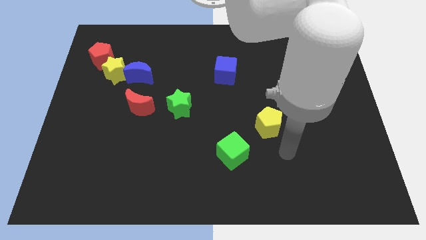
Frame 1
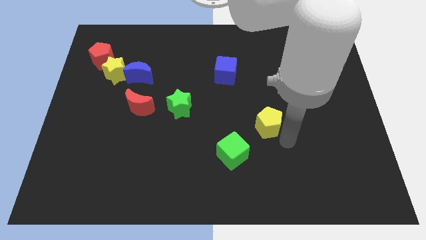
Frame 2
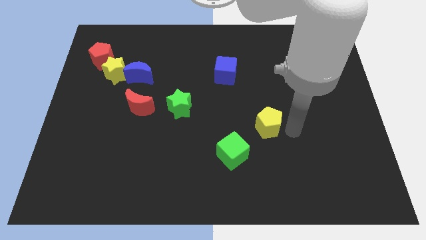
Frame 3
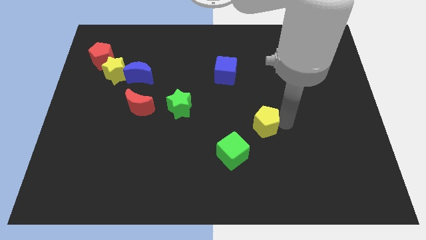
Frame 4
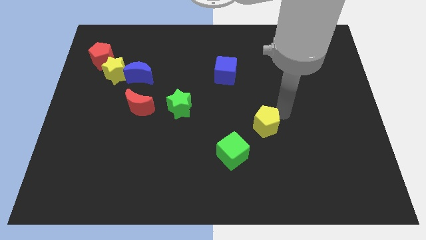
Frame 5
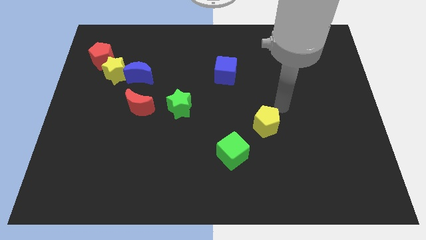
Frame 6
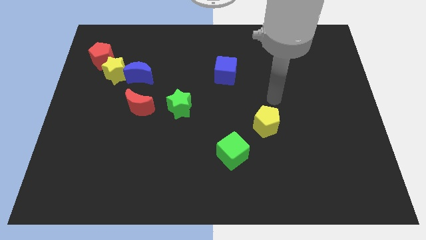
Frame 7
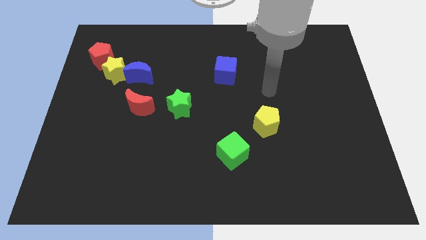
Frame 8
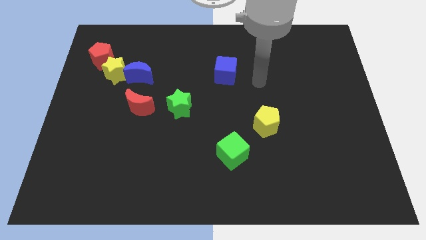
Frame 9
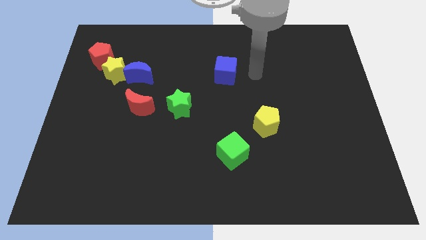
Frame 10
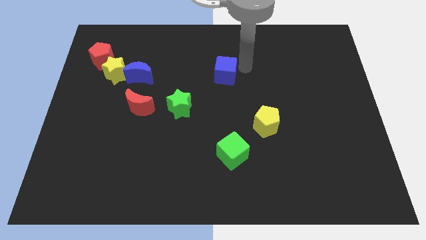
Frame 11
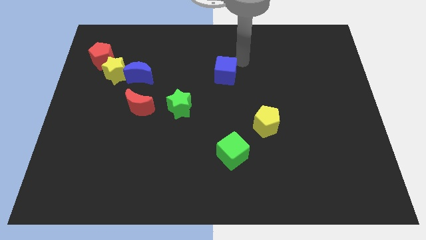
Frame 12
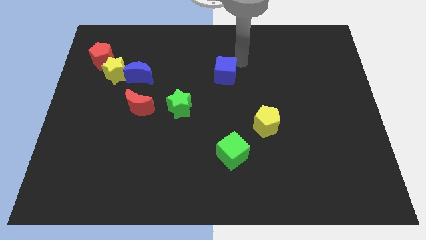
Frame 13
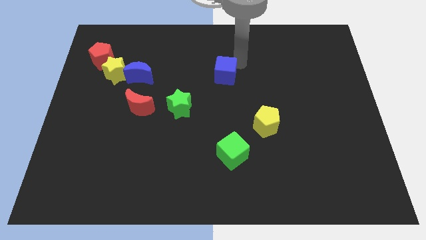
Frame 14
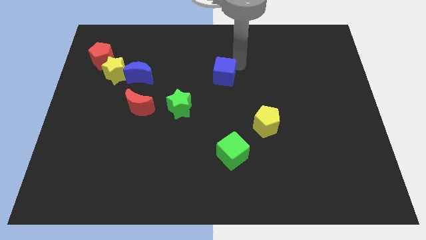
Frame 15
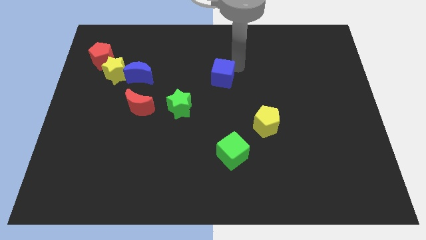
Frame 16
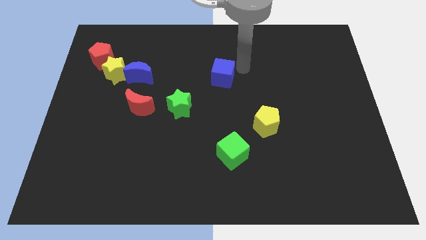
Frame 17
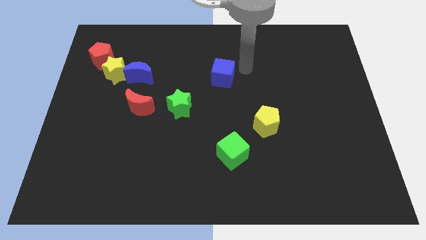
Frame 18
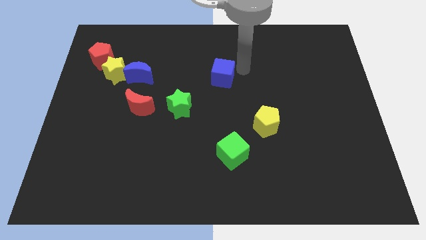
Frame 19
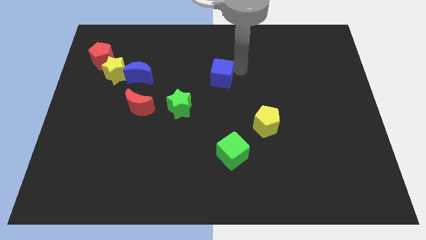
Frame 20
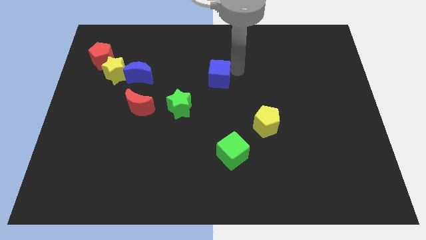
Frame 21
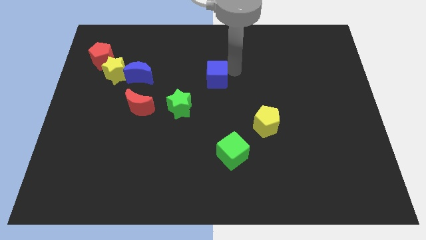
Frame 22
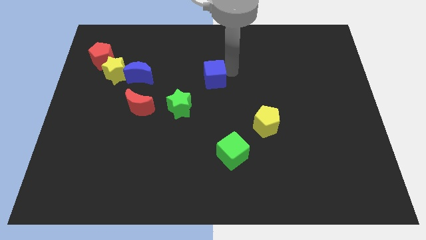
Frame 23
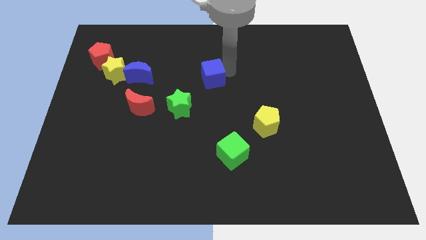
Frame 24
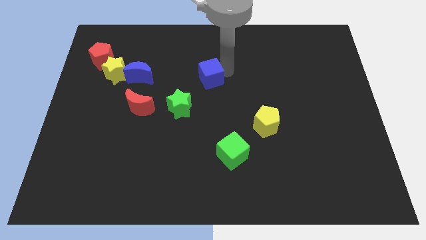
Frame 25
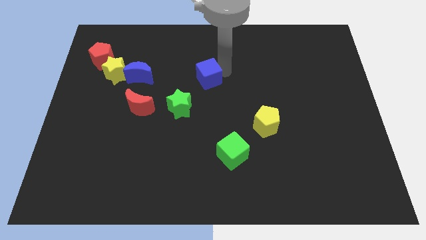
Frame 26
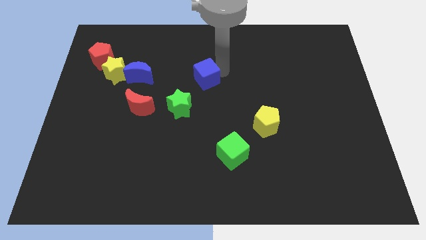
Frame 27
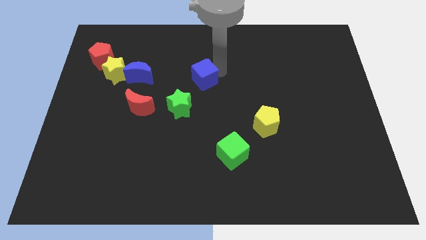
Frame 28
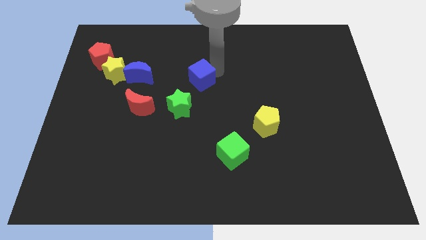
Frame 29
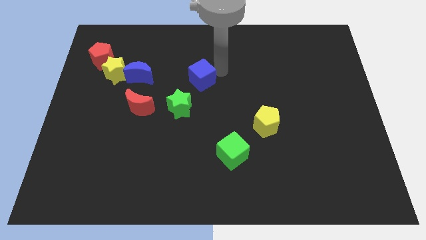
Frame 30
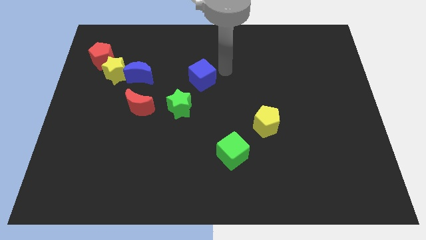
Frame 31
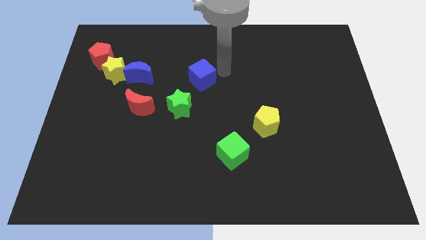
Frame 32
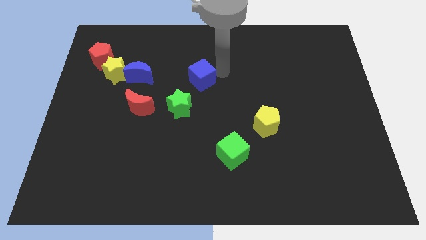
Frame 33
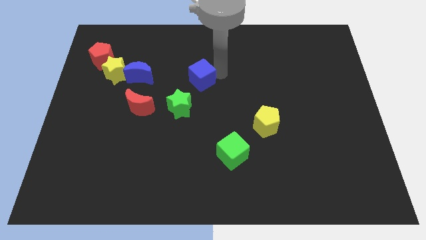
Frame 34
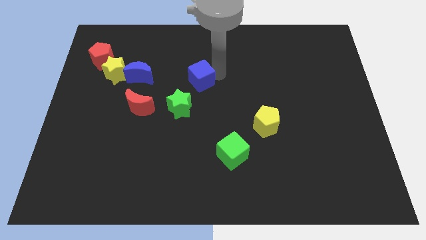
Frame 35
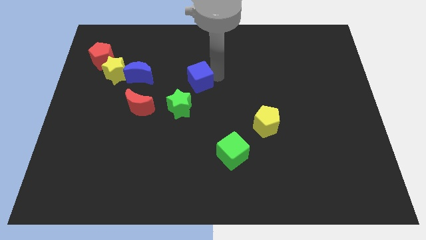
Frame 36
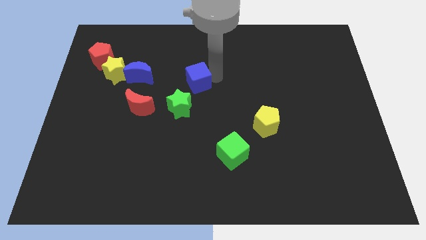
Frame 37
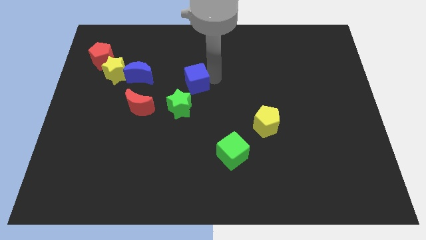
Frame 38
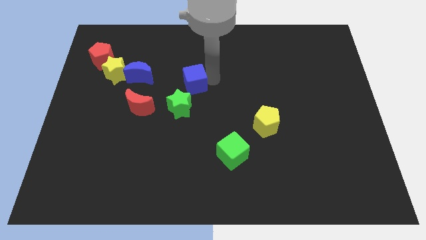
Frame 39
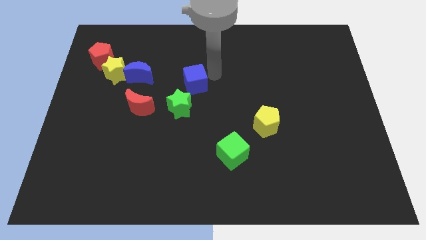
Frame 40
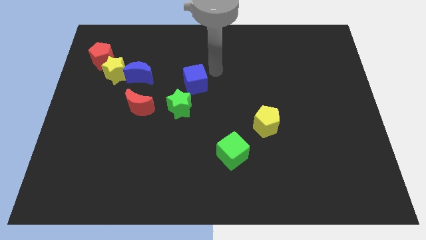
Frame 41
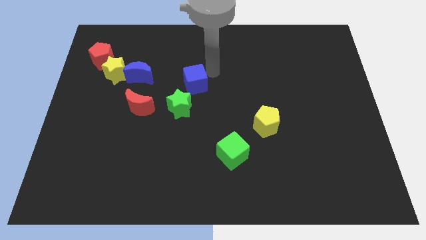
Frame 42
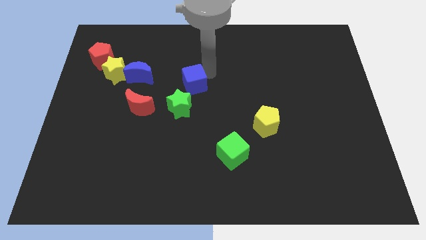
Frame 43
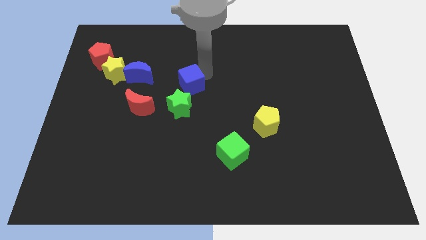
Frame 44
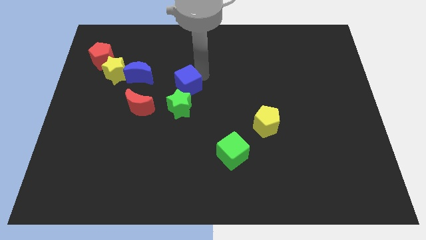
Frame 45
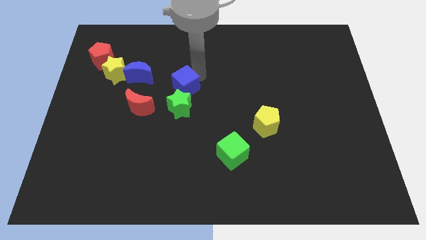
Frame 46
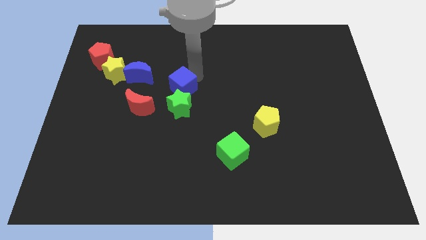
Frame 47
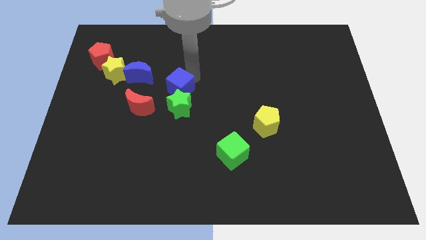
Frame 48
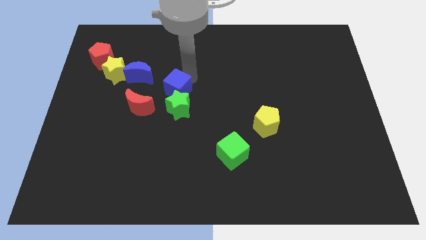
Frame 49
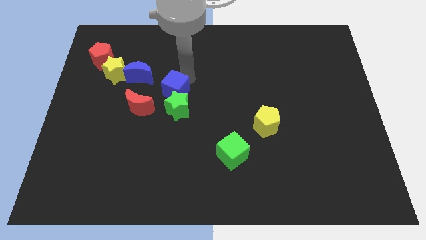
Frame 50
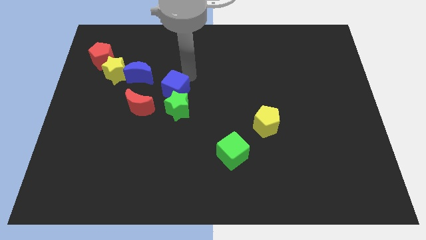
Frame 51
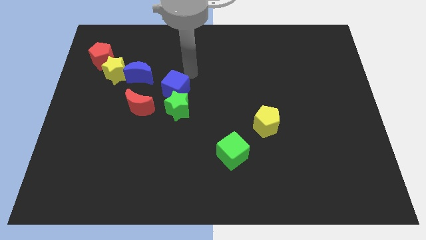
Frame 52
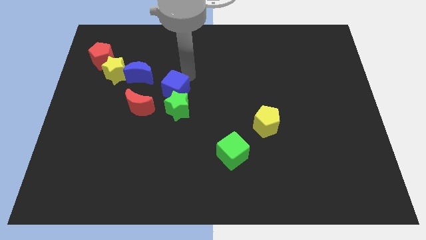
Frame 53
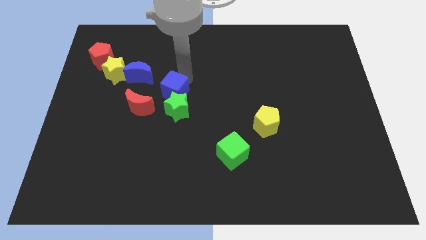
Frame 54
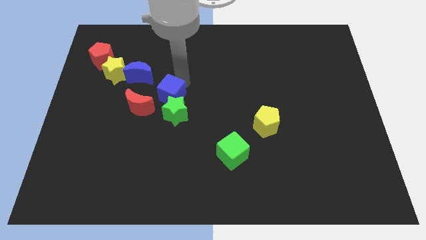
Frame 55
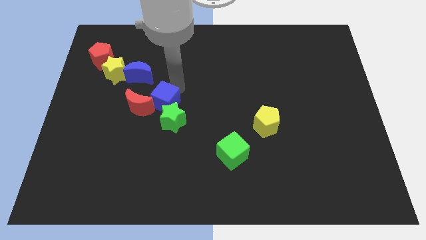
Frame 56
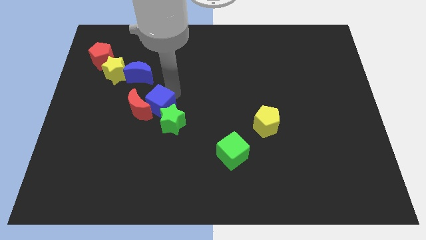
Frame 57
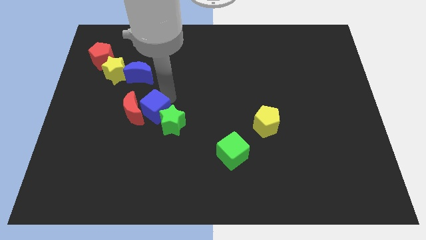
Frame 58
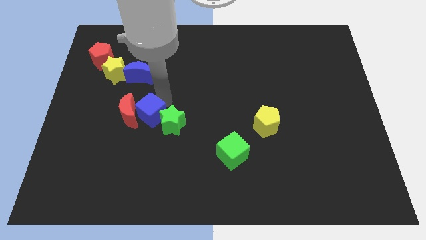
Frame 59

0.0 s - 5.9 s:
push the blue cube downwards and left

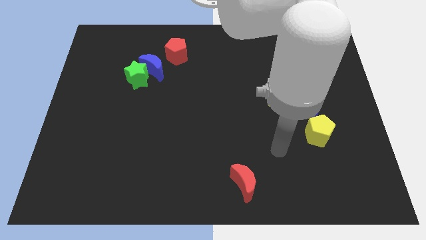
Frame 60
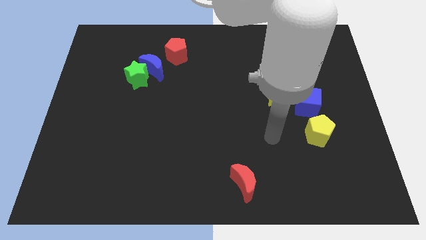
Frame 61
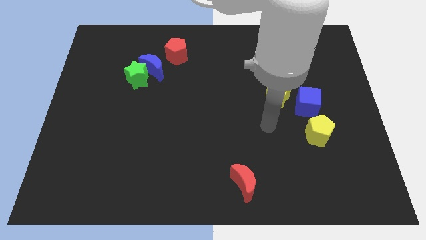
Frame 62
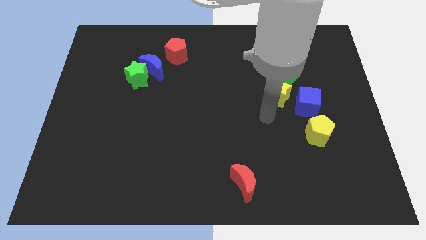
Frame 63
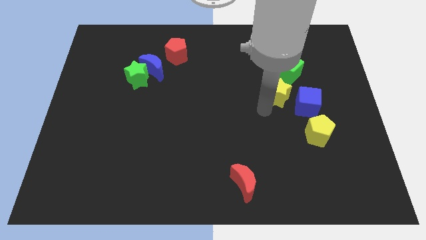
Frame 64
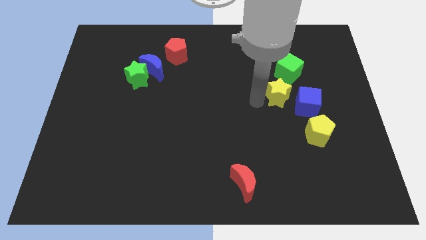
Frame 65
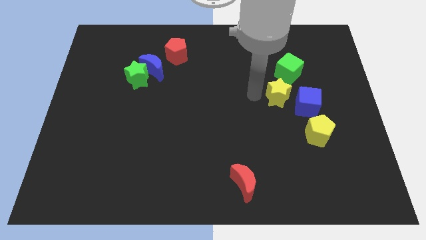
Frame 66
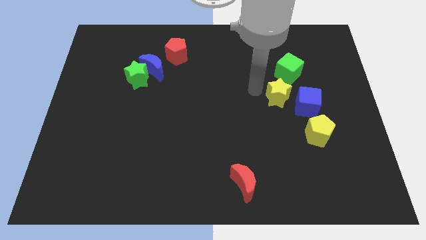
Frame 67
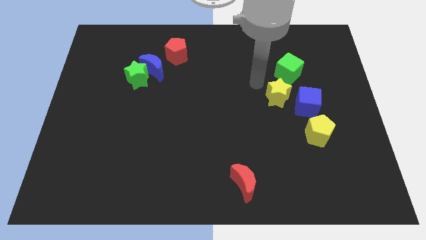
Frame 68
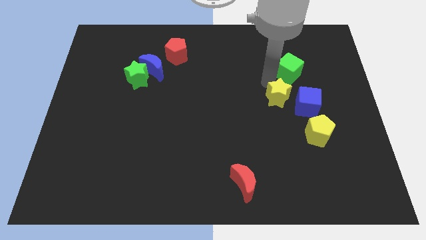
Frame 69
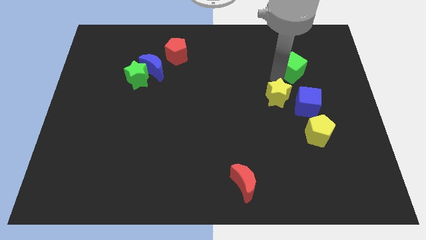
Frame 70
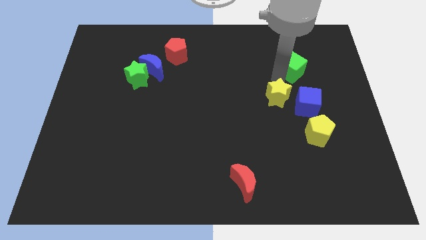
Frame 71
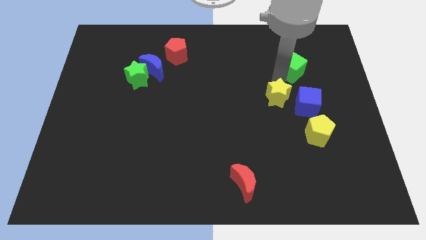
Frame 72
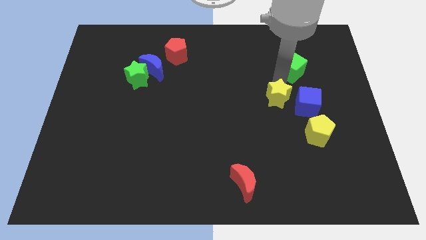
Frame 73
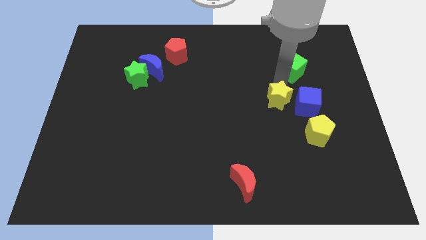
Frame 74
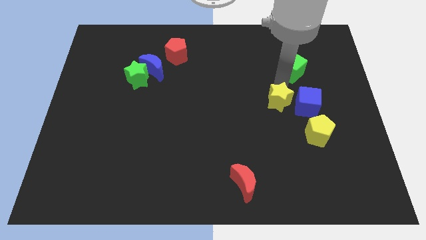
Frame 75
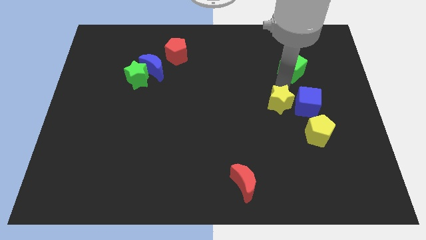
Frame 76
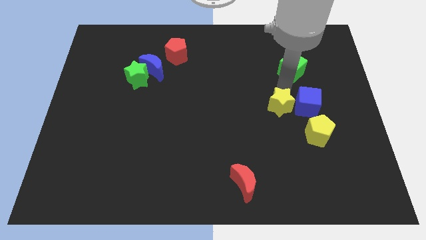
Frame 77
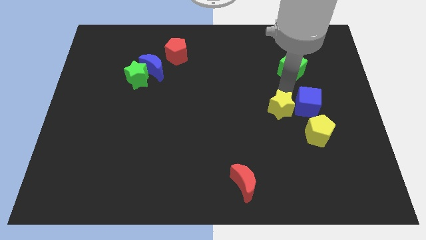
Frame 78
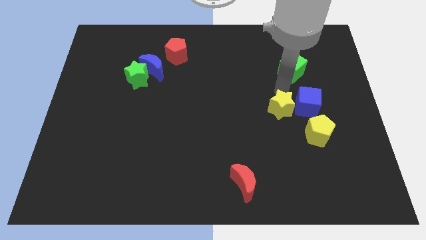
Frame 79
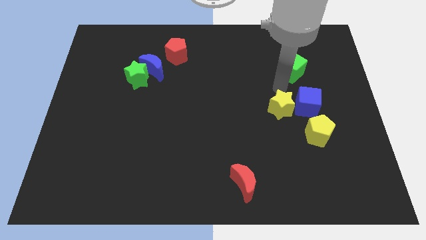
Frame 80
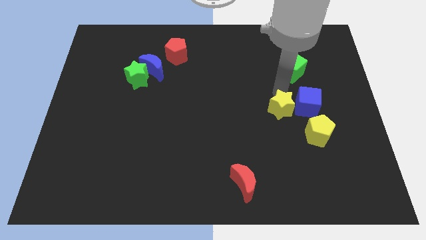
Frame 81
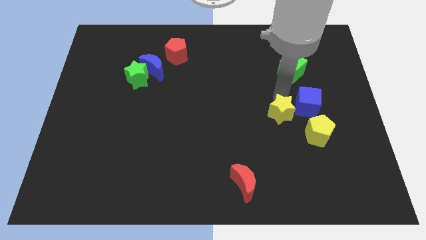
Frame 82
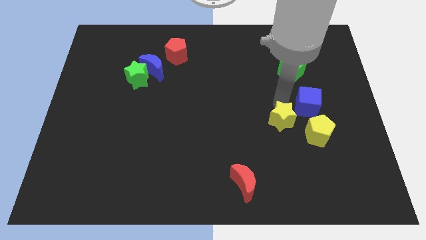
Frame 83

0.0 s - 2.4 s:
push the yellow star downwards a bit

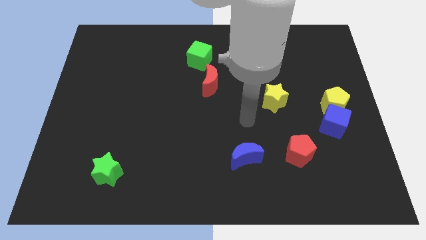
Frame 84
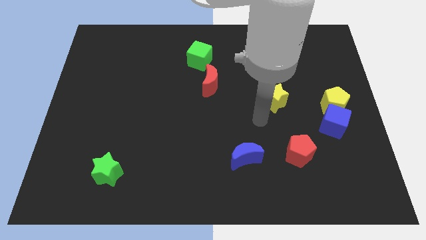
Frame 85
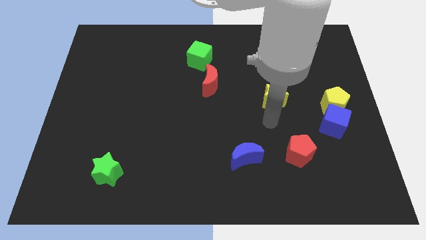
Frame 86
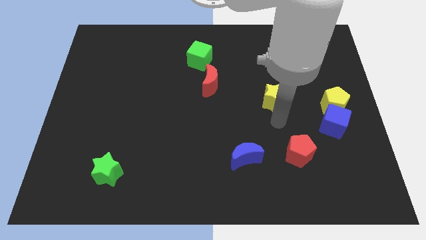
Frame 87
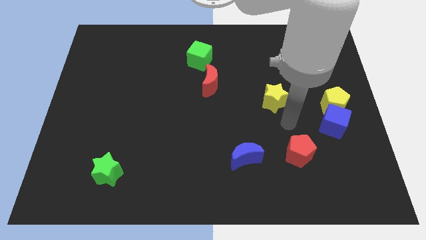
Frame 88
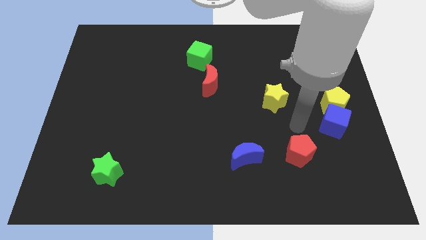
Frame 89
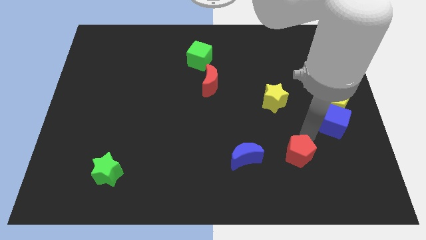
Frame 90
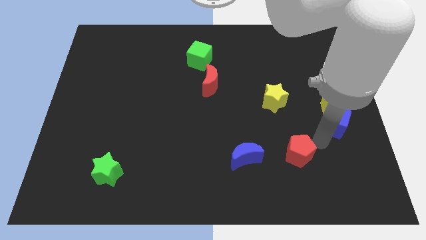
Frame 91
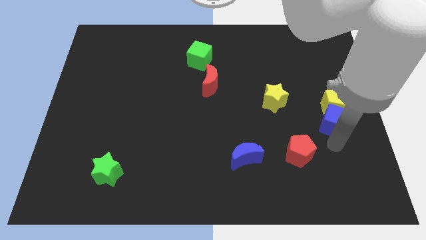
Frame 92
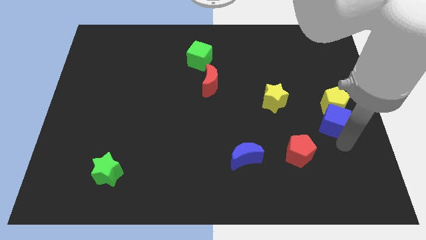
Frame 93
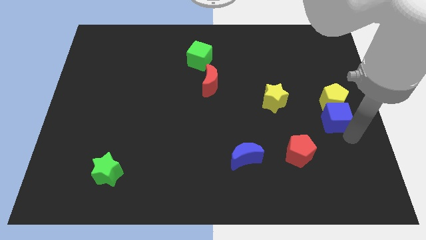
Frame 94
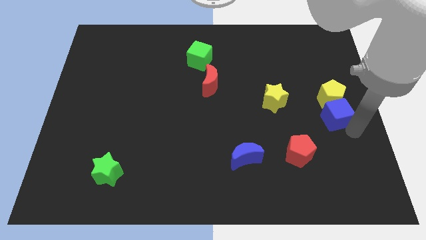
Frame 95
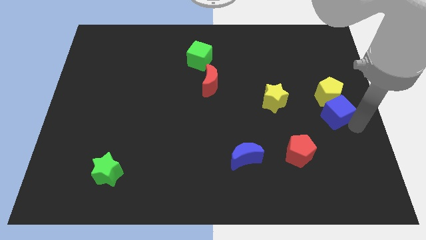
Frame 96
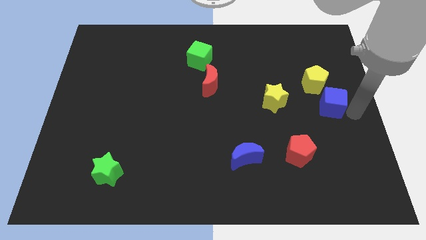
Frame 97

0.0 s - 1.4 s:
move the yellow pentagon upwards and then to the left a bit
